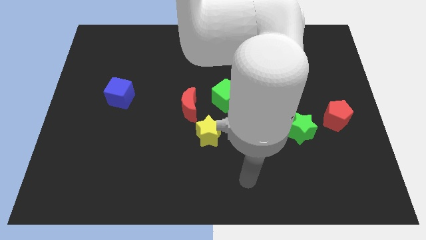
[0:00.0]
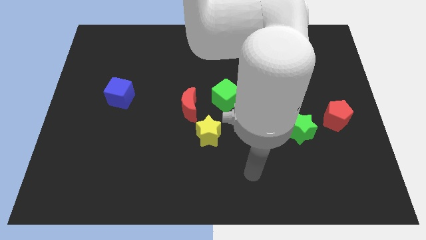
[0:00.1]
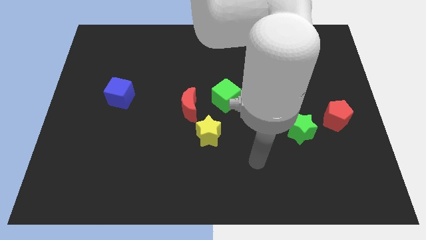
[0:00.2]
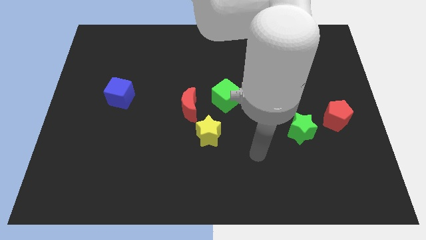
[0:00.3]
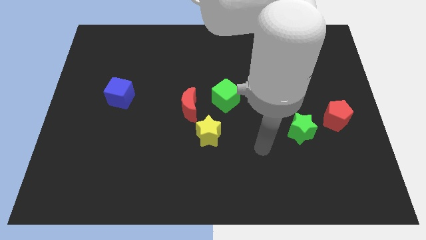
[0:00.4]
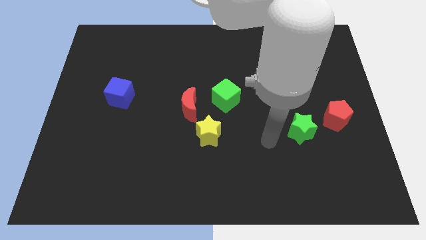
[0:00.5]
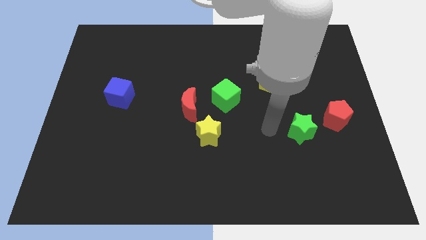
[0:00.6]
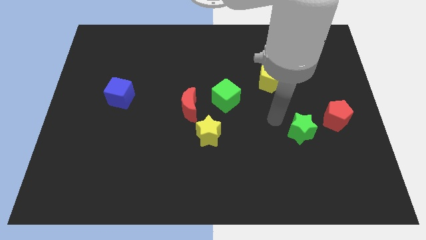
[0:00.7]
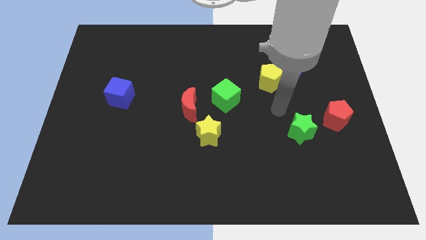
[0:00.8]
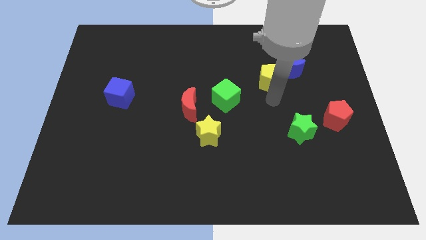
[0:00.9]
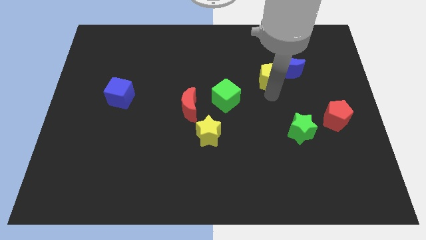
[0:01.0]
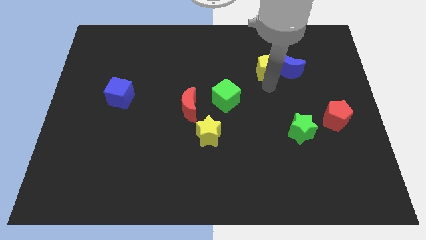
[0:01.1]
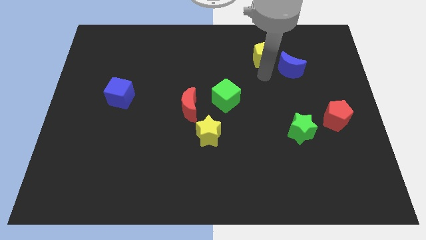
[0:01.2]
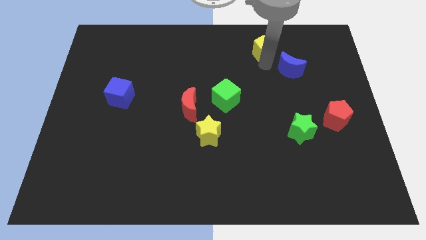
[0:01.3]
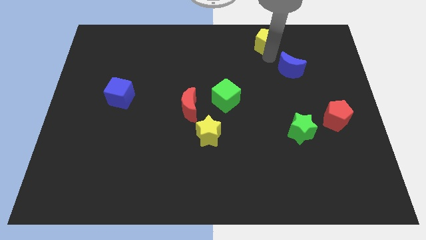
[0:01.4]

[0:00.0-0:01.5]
pull the blue moon apart from the yellow pentagon

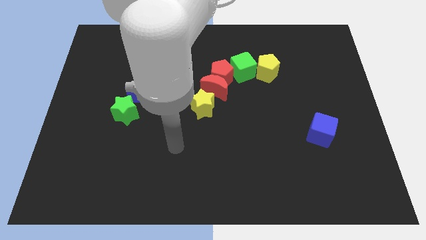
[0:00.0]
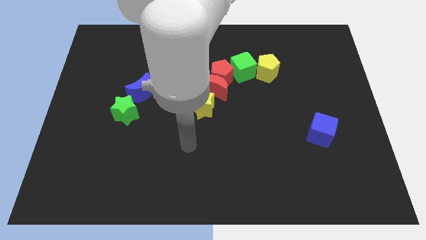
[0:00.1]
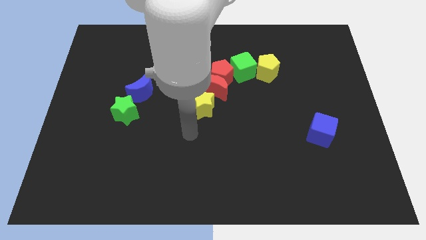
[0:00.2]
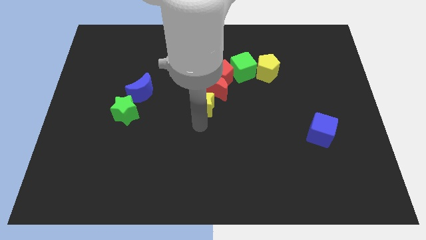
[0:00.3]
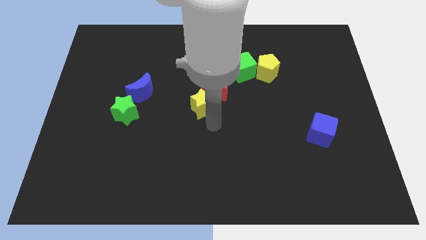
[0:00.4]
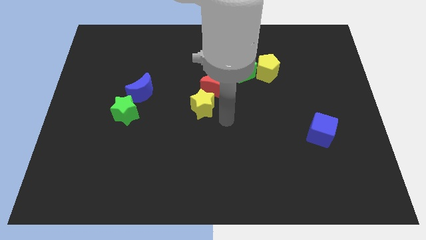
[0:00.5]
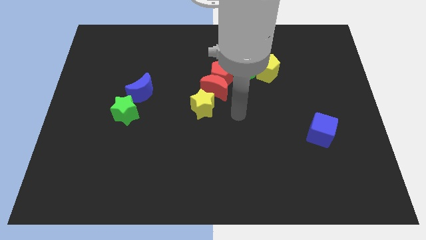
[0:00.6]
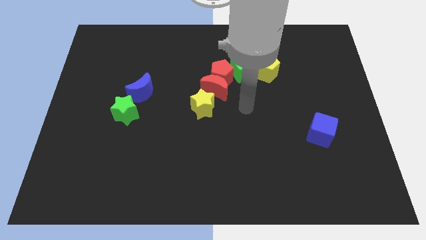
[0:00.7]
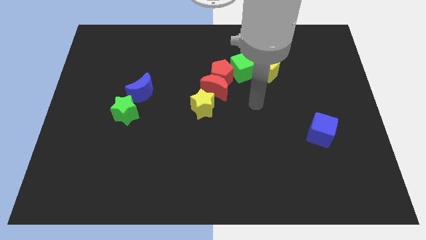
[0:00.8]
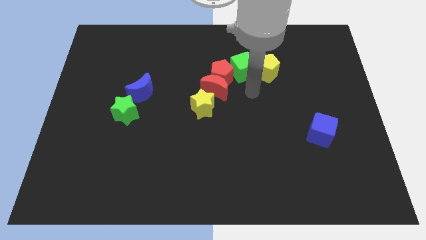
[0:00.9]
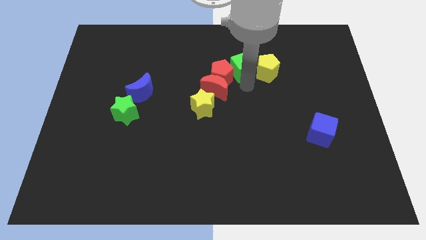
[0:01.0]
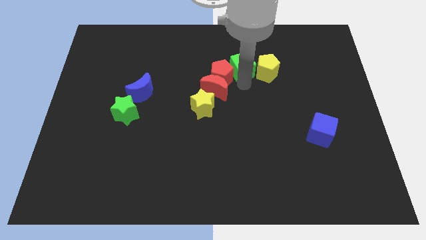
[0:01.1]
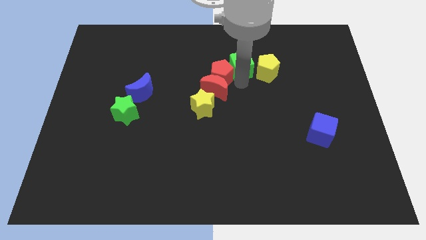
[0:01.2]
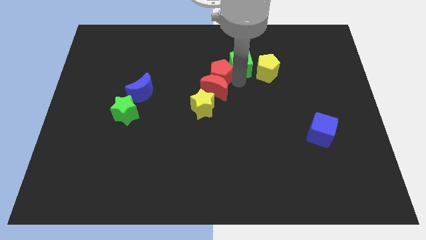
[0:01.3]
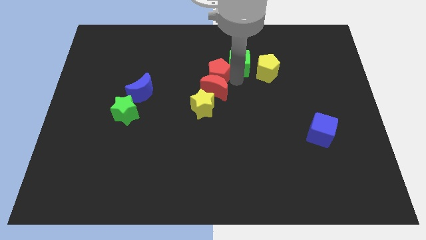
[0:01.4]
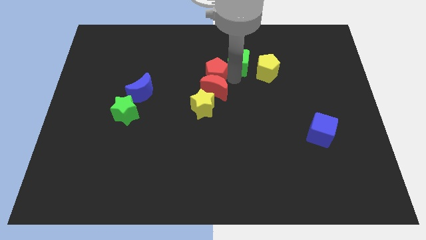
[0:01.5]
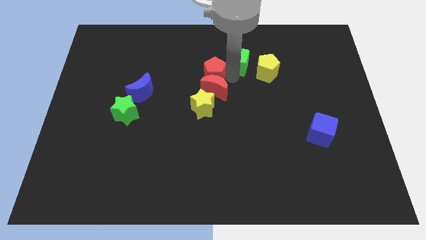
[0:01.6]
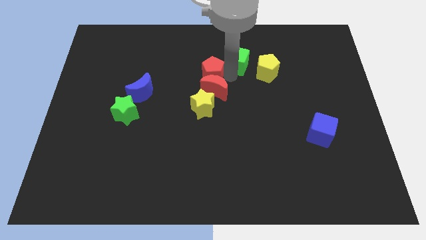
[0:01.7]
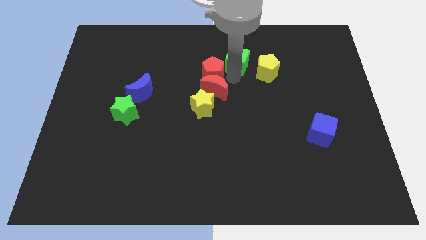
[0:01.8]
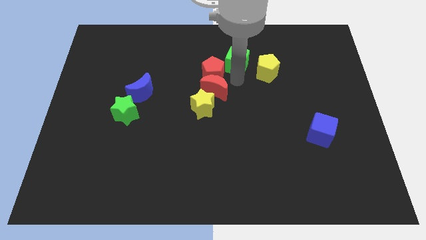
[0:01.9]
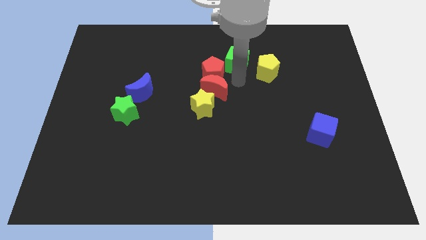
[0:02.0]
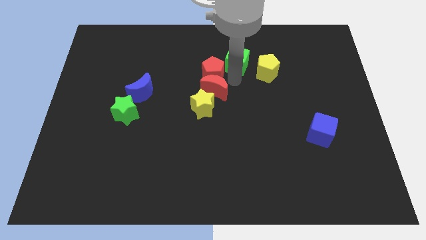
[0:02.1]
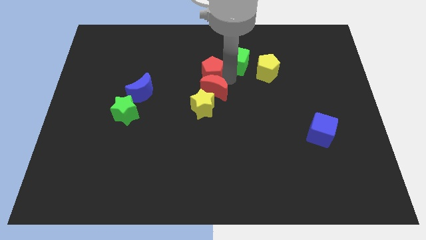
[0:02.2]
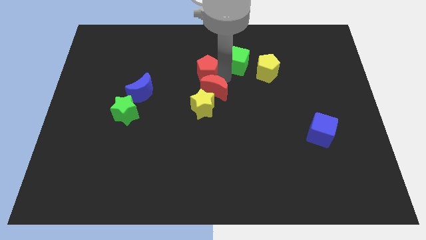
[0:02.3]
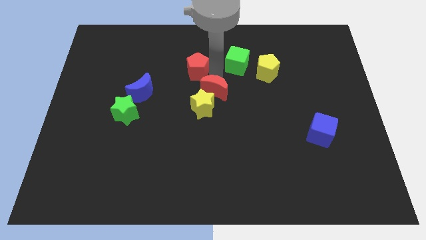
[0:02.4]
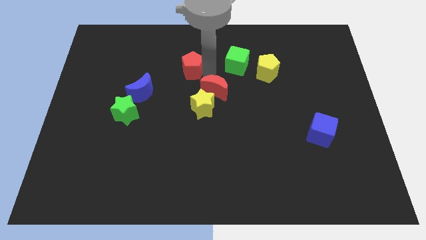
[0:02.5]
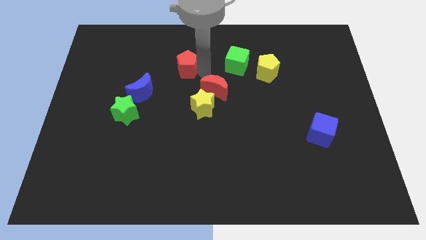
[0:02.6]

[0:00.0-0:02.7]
pull the red pentagon apart from the red moon and green cube

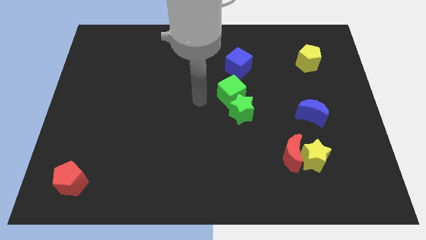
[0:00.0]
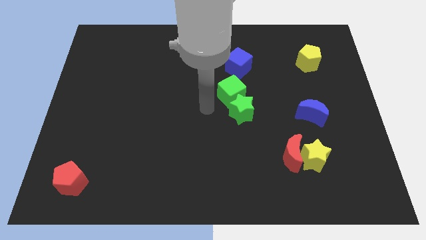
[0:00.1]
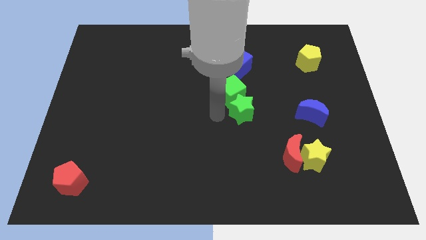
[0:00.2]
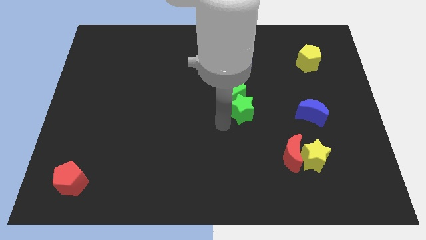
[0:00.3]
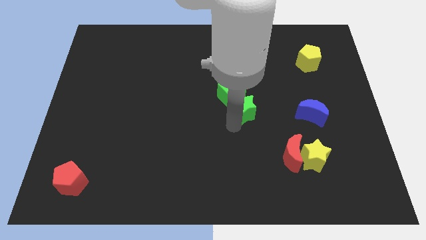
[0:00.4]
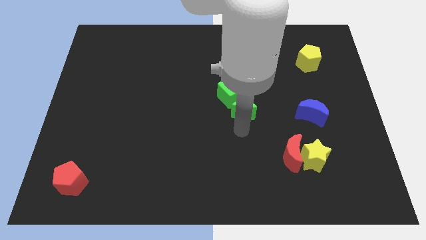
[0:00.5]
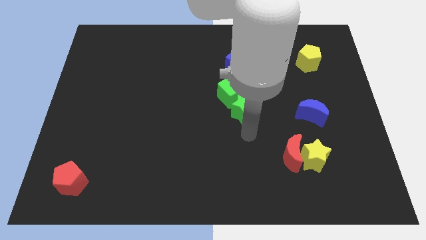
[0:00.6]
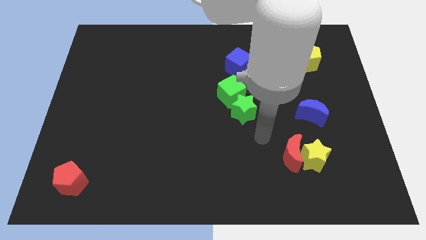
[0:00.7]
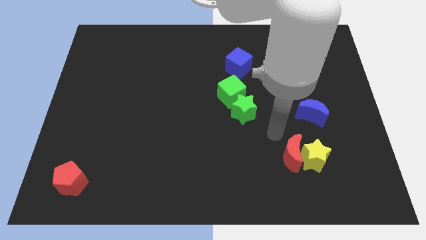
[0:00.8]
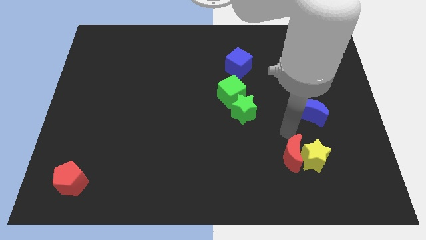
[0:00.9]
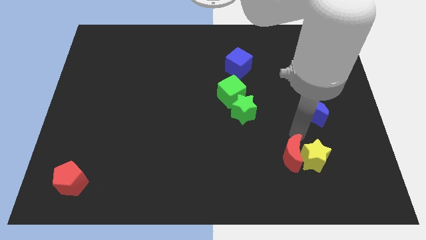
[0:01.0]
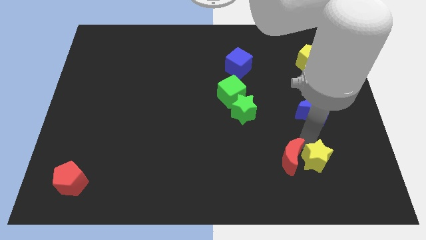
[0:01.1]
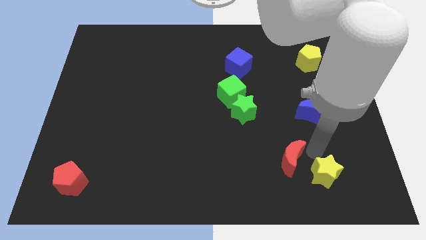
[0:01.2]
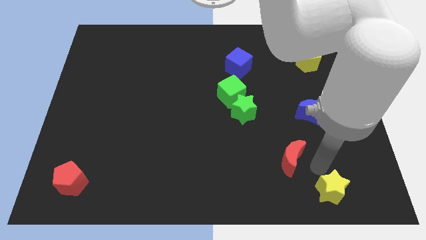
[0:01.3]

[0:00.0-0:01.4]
move the red moon away from the yellow star

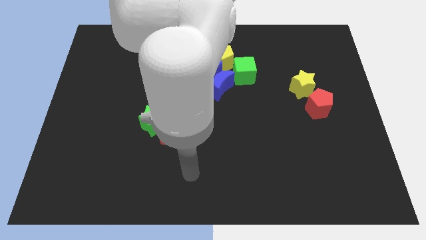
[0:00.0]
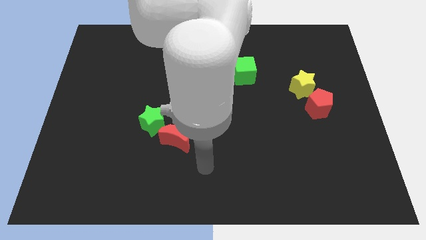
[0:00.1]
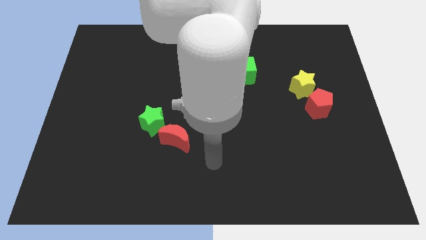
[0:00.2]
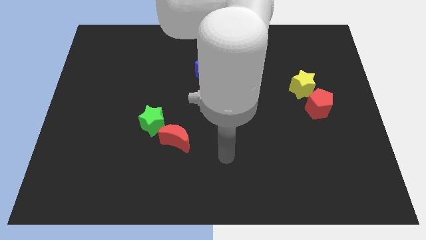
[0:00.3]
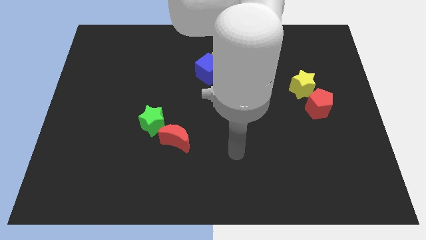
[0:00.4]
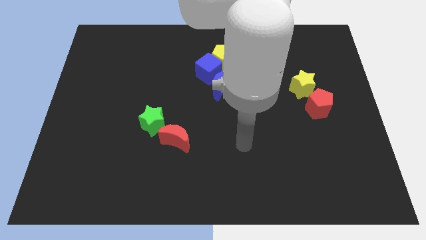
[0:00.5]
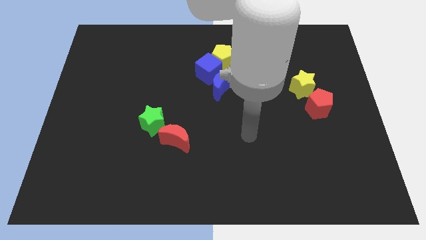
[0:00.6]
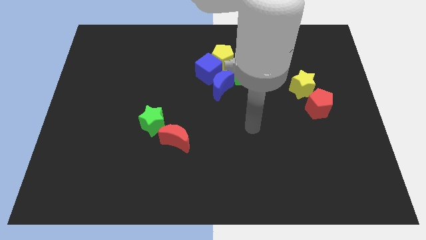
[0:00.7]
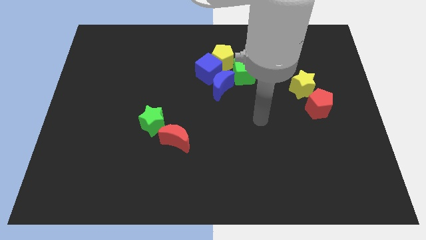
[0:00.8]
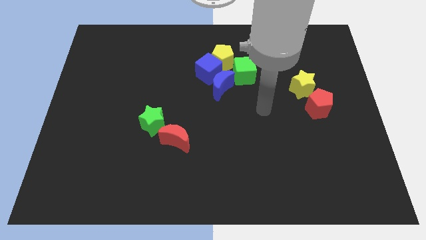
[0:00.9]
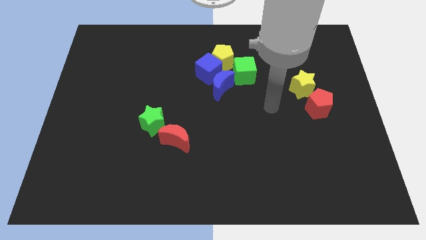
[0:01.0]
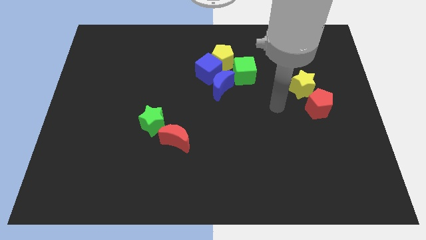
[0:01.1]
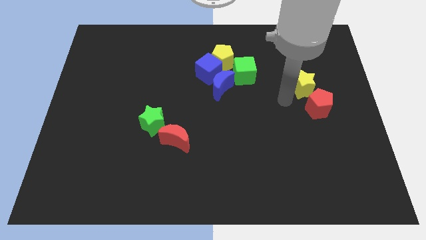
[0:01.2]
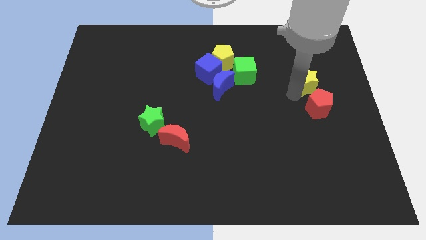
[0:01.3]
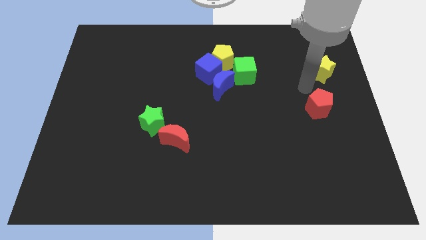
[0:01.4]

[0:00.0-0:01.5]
move the red pentagon away from the yellow star

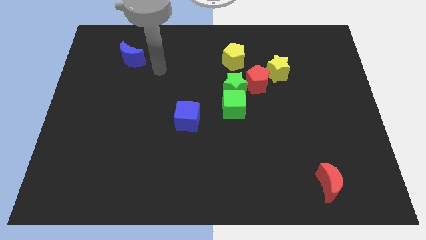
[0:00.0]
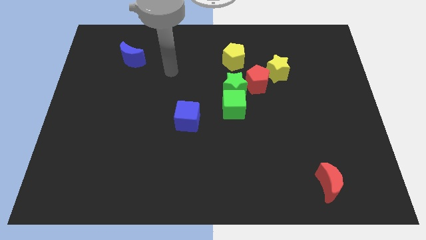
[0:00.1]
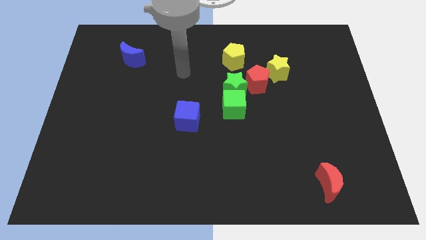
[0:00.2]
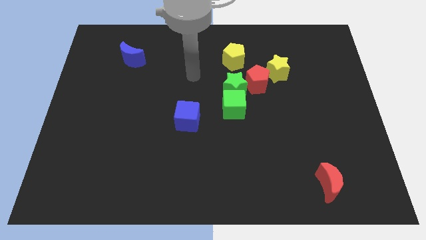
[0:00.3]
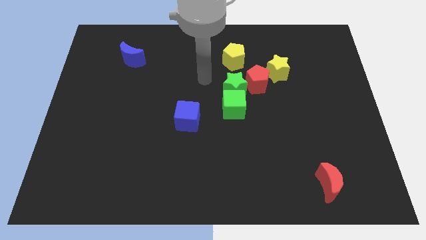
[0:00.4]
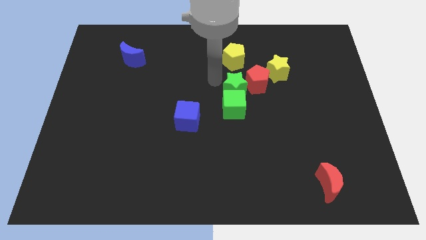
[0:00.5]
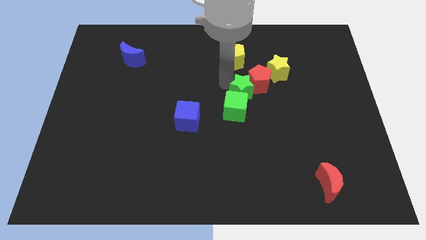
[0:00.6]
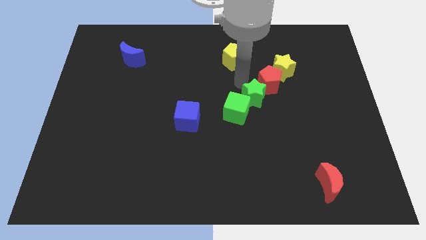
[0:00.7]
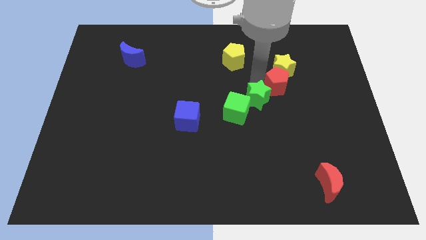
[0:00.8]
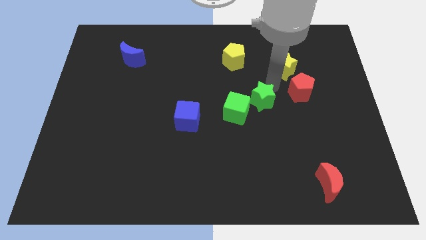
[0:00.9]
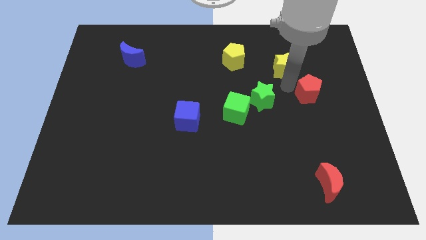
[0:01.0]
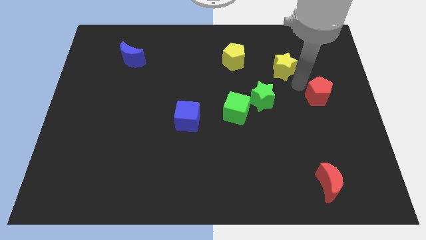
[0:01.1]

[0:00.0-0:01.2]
move the yellow star away from the red pentagon

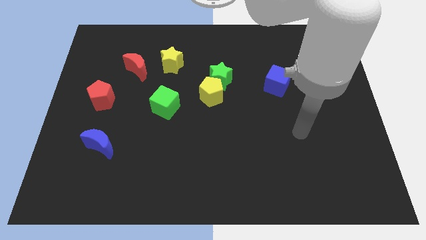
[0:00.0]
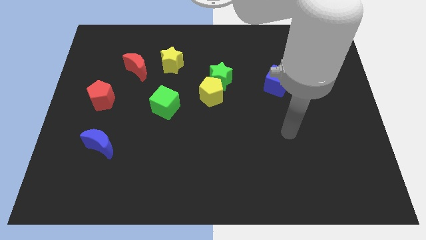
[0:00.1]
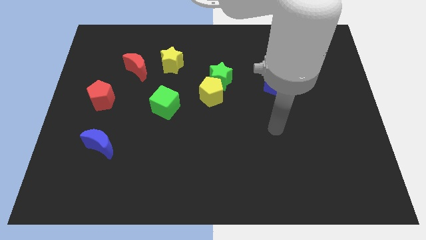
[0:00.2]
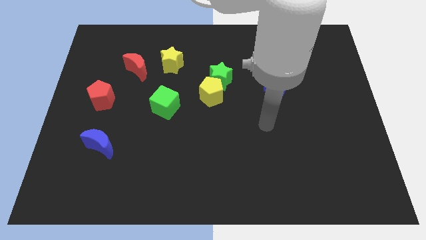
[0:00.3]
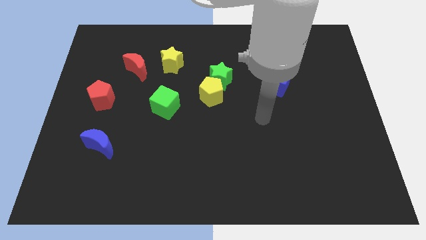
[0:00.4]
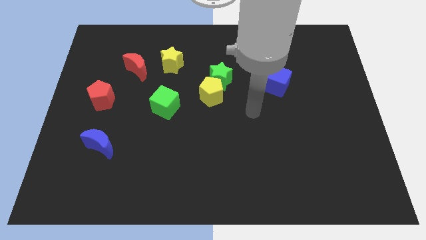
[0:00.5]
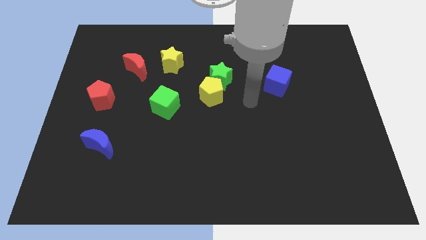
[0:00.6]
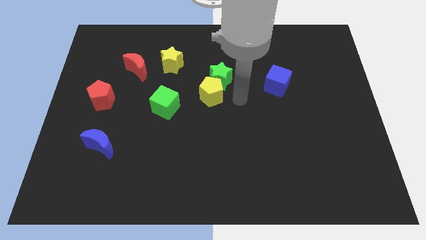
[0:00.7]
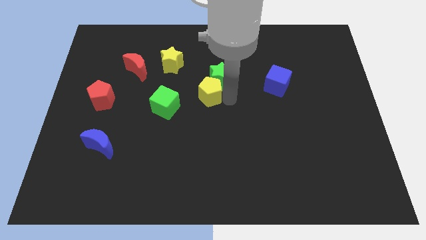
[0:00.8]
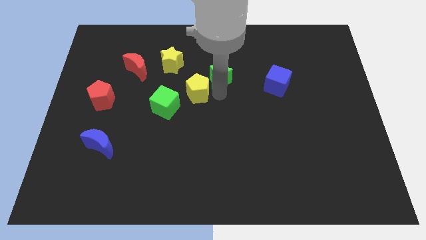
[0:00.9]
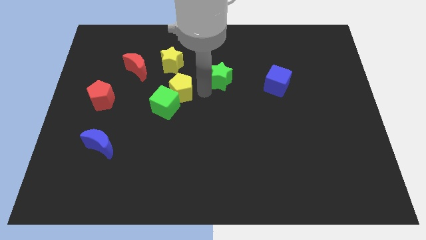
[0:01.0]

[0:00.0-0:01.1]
separate the green star from the yellow pentagon
